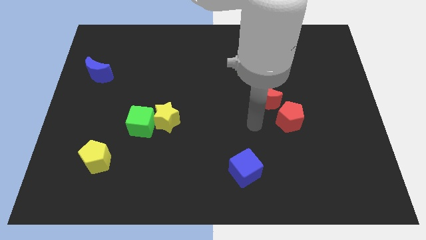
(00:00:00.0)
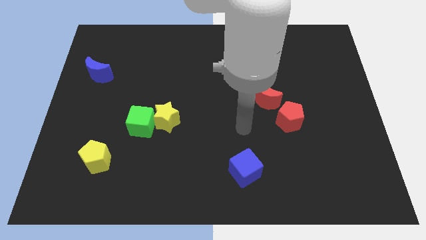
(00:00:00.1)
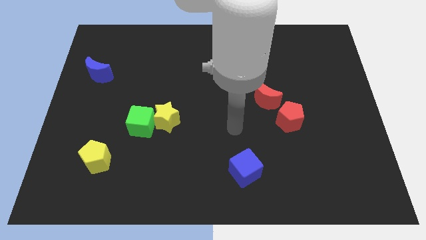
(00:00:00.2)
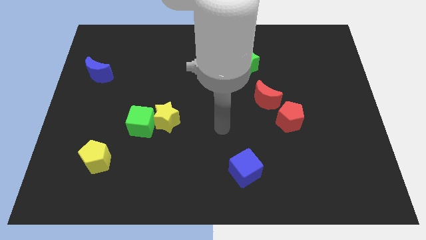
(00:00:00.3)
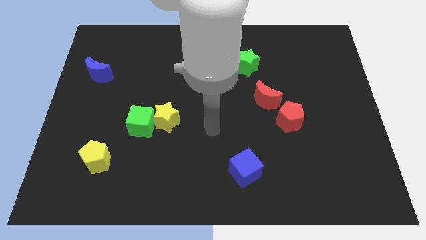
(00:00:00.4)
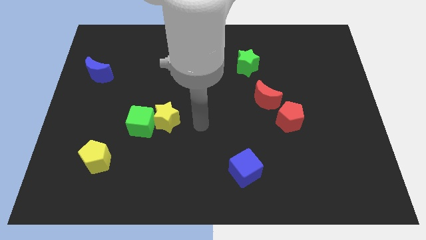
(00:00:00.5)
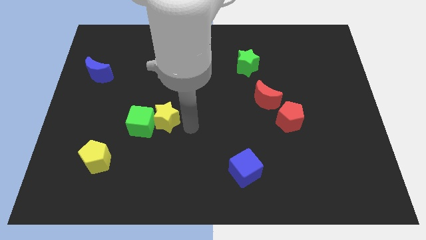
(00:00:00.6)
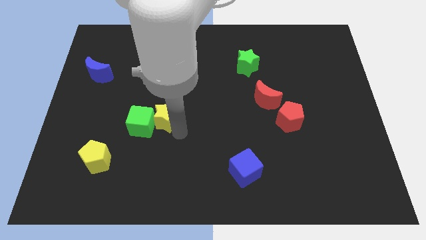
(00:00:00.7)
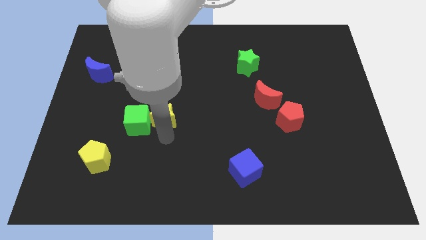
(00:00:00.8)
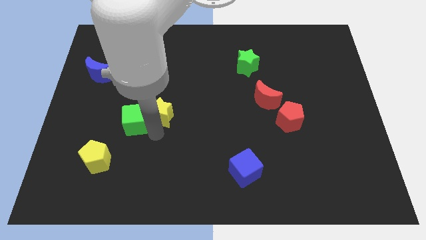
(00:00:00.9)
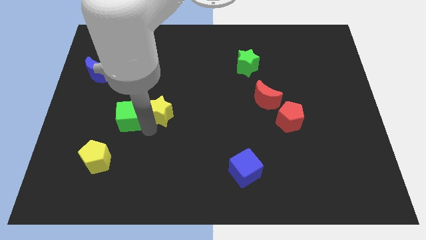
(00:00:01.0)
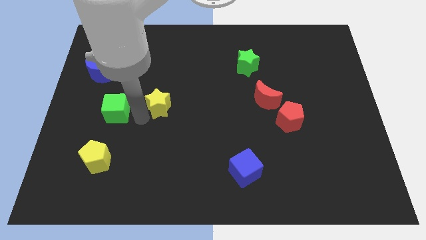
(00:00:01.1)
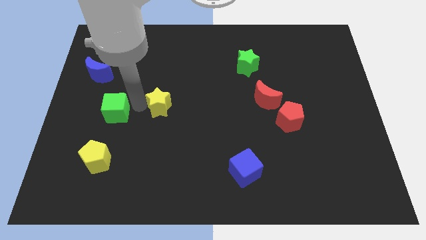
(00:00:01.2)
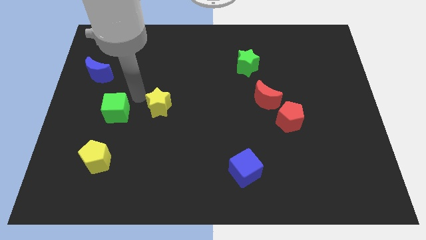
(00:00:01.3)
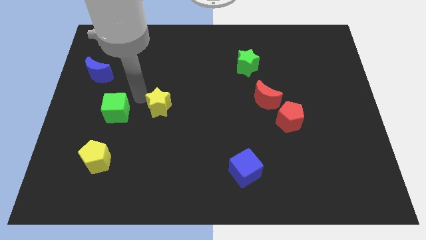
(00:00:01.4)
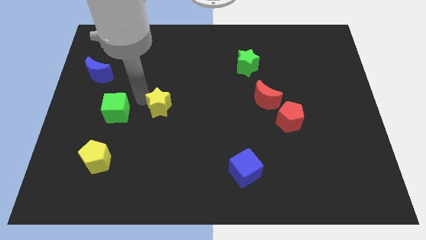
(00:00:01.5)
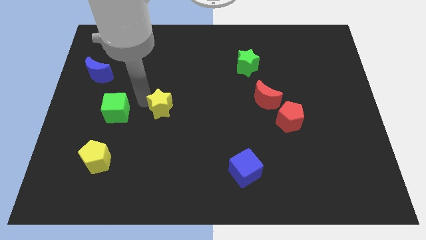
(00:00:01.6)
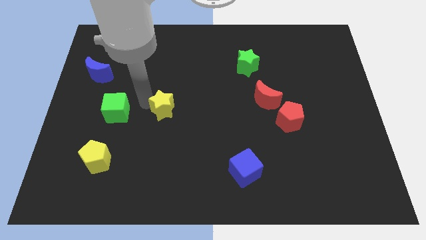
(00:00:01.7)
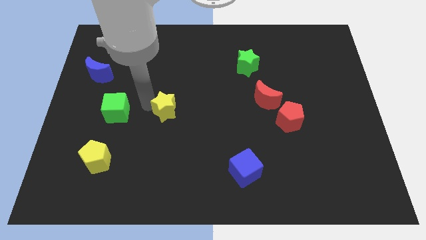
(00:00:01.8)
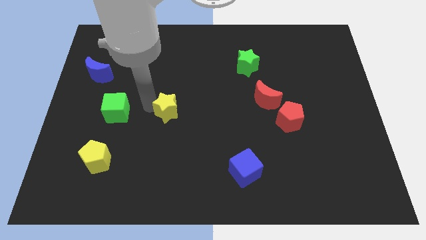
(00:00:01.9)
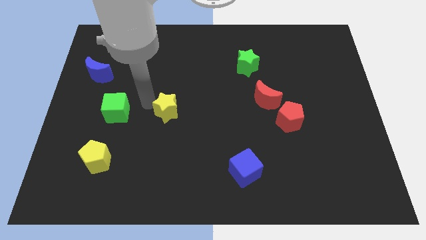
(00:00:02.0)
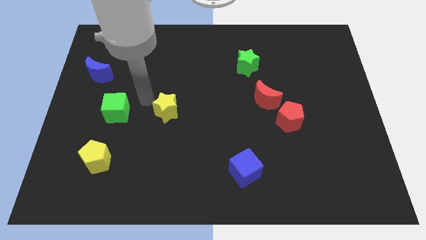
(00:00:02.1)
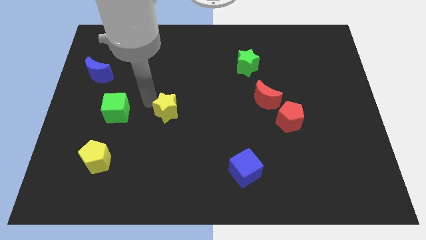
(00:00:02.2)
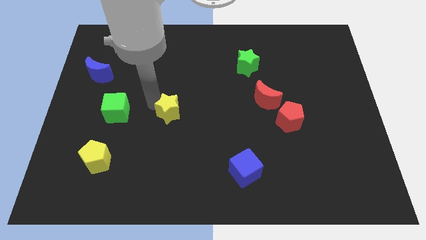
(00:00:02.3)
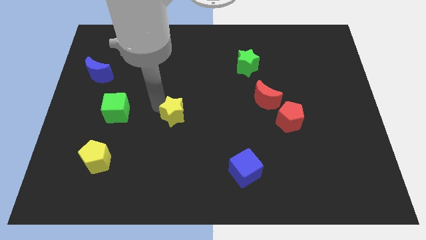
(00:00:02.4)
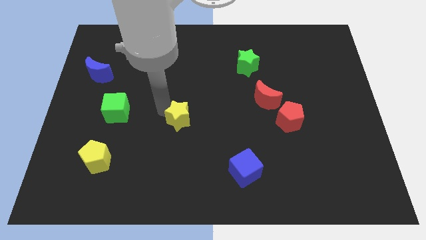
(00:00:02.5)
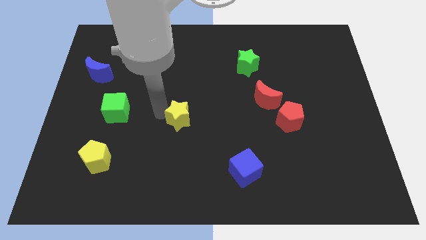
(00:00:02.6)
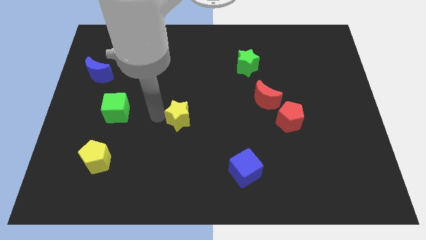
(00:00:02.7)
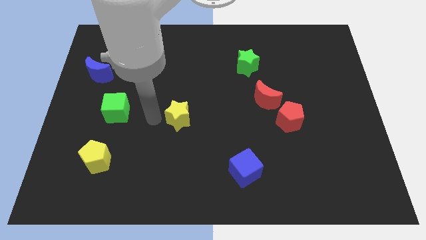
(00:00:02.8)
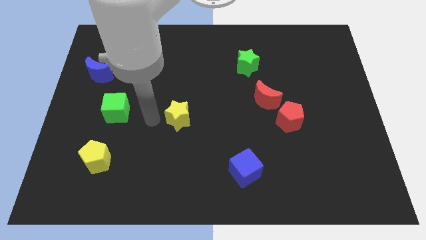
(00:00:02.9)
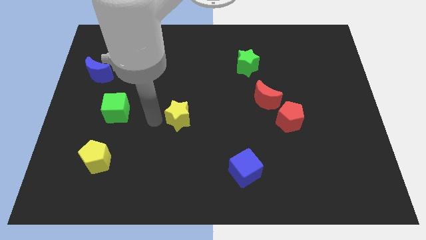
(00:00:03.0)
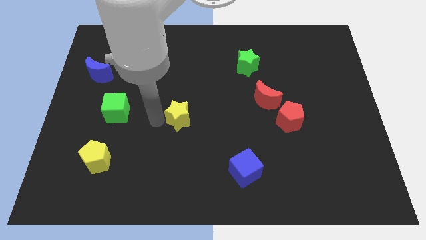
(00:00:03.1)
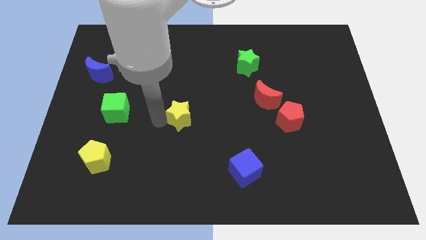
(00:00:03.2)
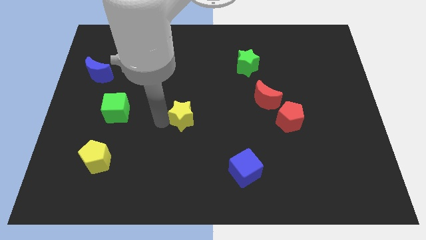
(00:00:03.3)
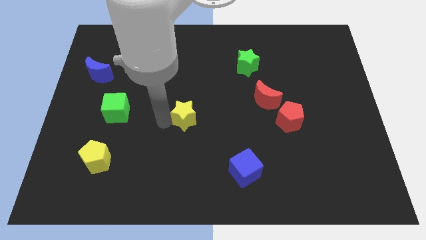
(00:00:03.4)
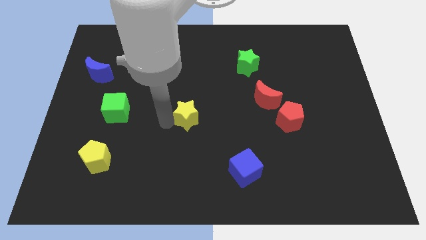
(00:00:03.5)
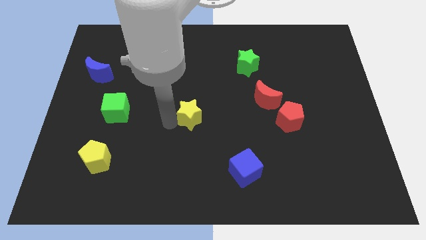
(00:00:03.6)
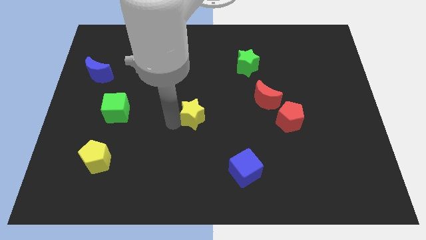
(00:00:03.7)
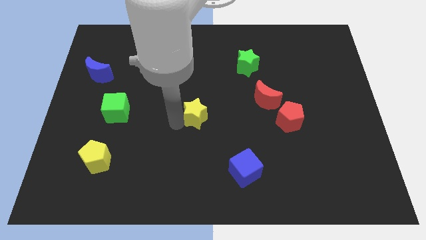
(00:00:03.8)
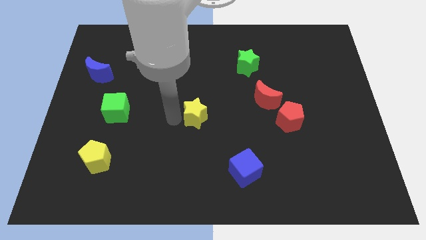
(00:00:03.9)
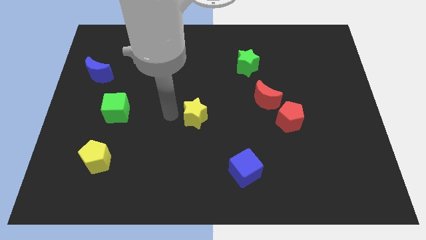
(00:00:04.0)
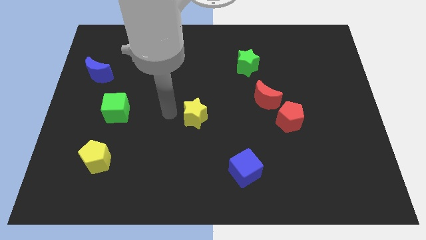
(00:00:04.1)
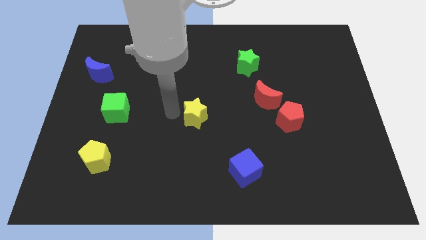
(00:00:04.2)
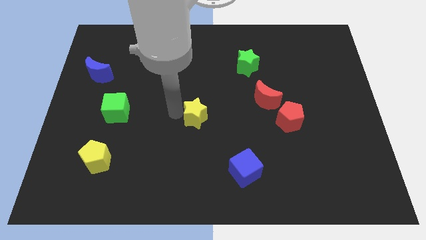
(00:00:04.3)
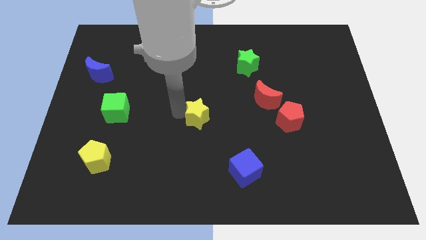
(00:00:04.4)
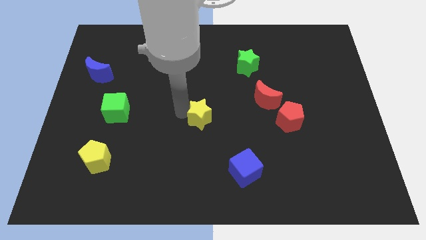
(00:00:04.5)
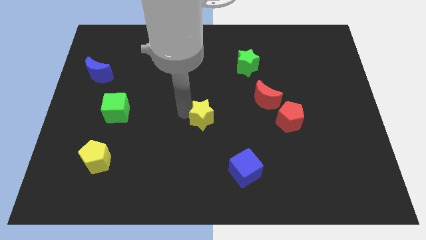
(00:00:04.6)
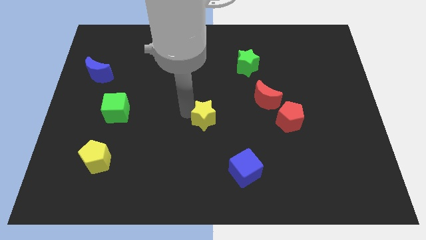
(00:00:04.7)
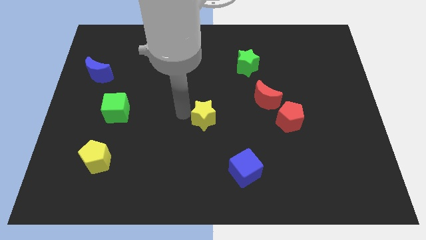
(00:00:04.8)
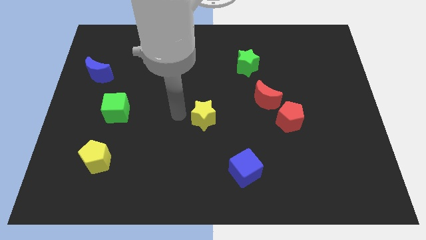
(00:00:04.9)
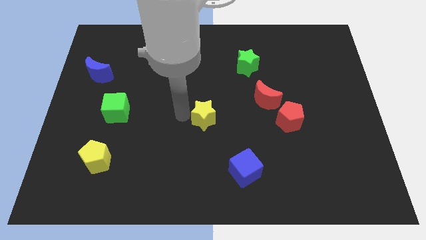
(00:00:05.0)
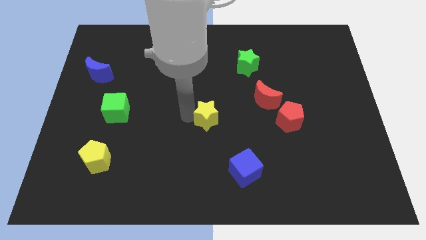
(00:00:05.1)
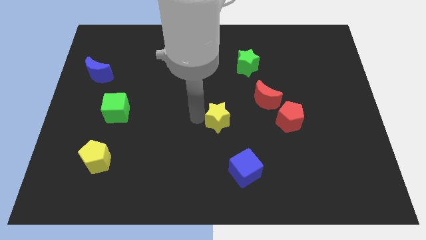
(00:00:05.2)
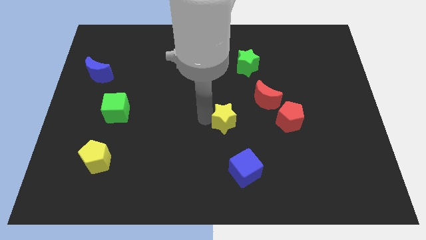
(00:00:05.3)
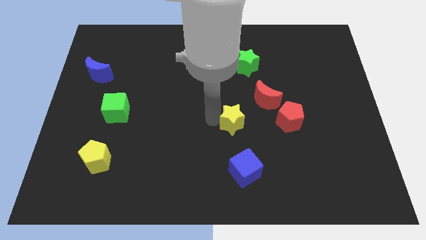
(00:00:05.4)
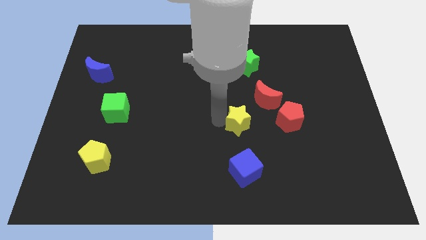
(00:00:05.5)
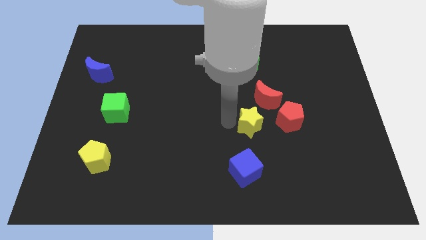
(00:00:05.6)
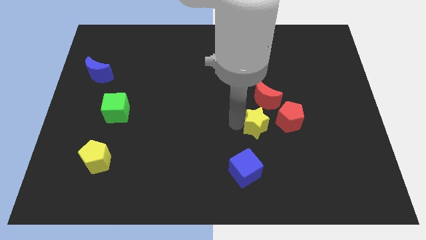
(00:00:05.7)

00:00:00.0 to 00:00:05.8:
push the yellow star right

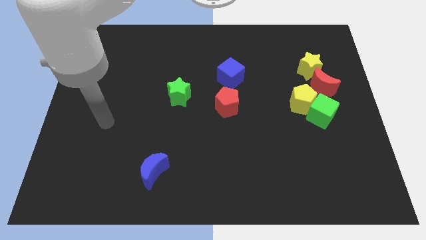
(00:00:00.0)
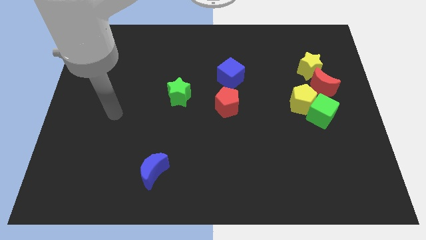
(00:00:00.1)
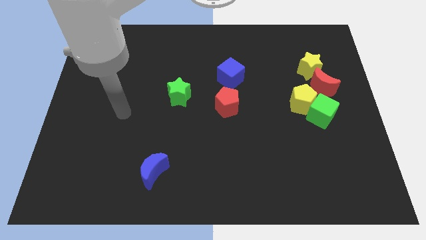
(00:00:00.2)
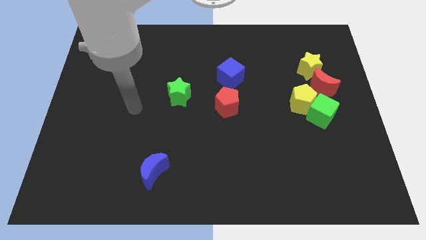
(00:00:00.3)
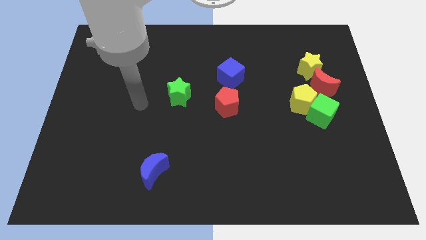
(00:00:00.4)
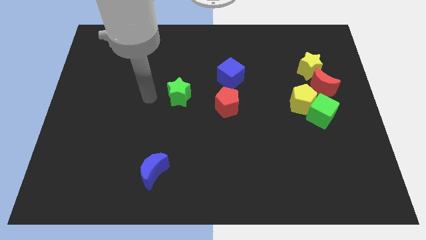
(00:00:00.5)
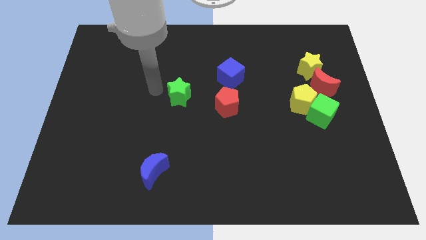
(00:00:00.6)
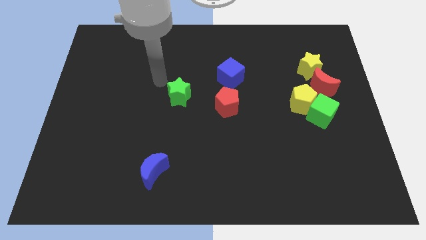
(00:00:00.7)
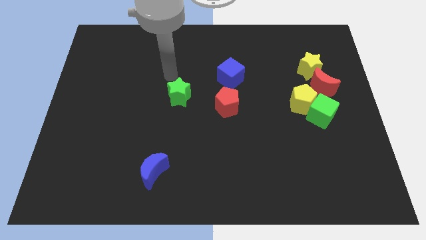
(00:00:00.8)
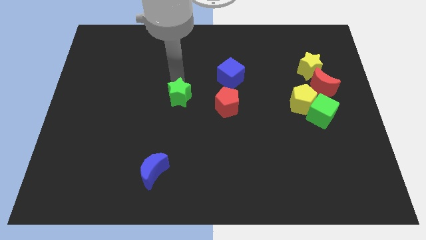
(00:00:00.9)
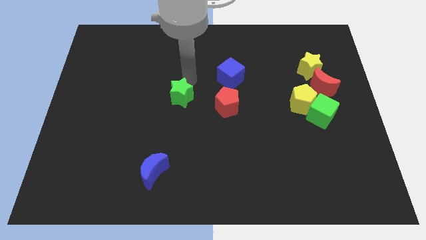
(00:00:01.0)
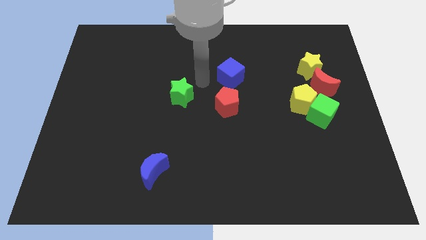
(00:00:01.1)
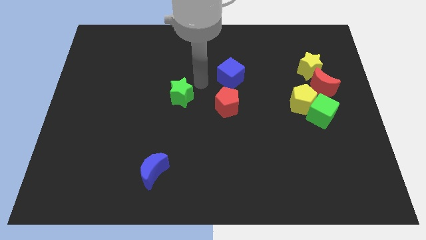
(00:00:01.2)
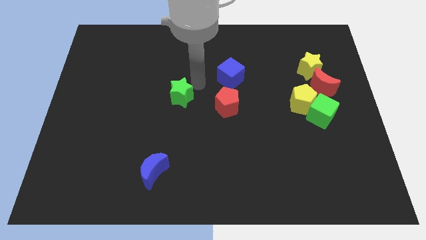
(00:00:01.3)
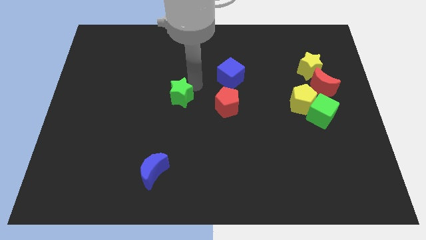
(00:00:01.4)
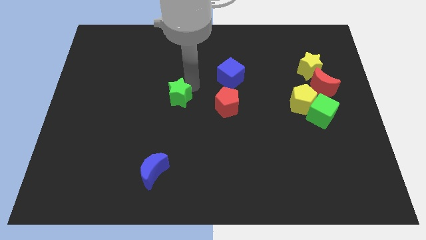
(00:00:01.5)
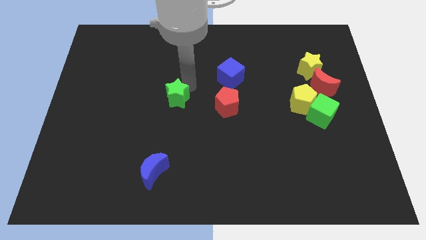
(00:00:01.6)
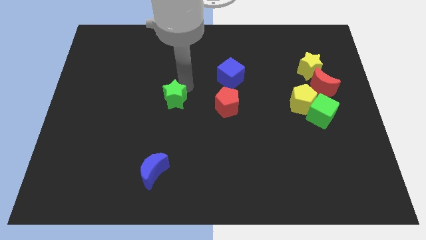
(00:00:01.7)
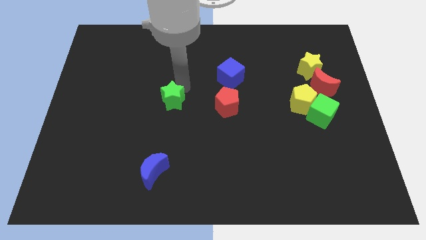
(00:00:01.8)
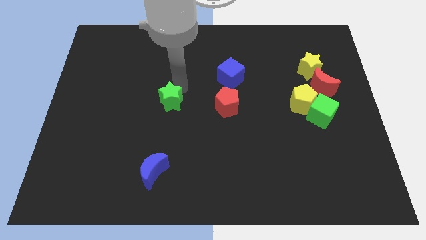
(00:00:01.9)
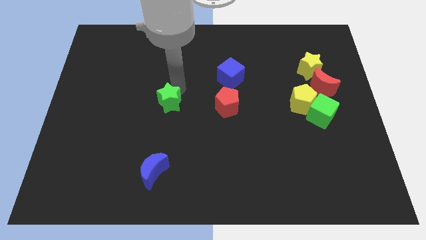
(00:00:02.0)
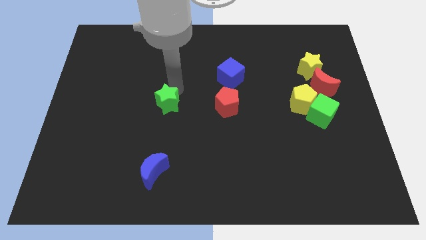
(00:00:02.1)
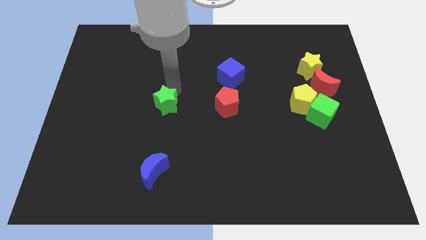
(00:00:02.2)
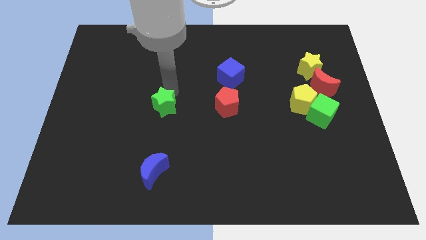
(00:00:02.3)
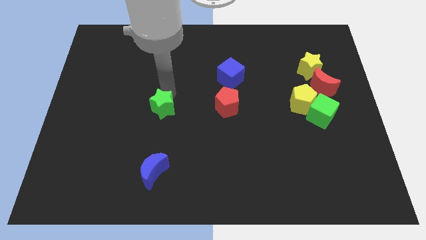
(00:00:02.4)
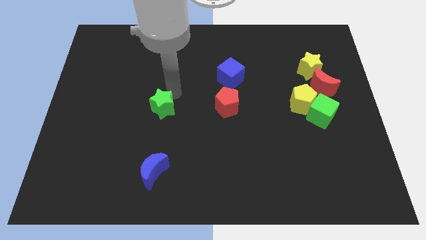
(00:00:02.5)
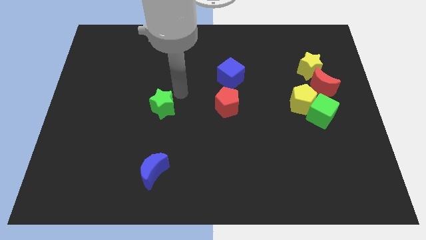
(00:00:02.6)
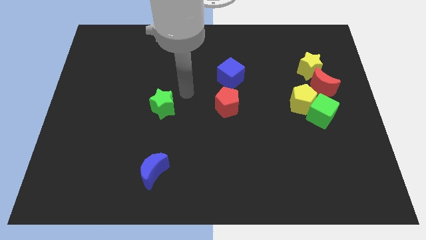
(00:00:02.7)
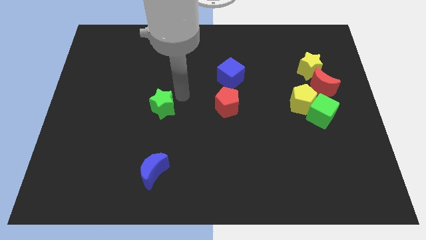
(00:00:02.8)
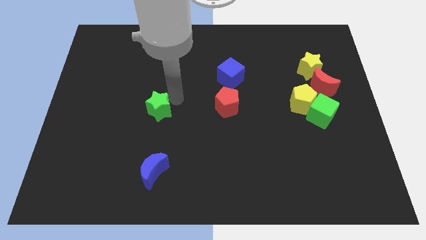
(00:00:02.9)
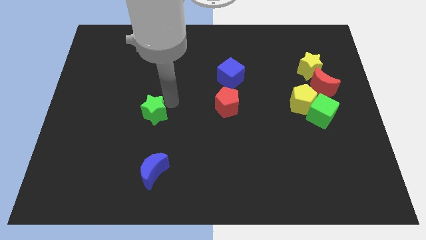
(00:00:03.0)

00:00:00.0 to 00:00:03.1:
slightly slide the green star diagonally down and to the left
